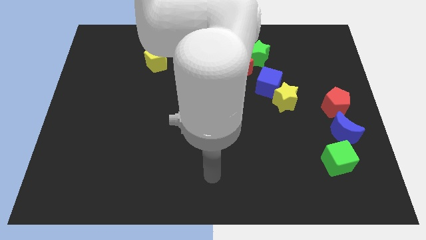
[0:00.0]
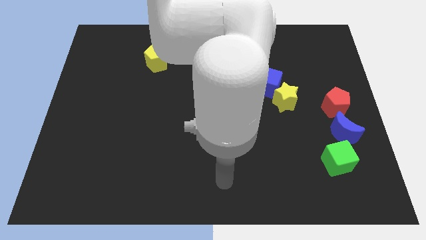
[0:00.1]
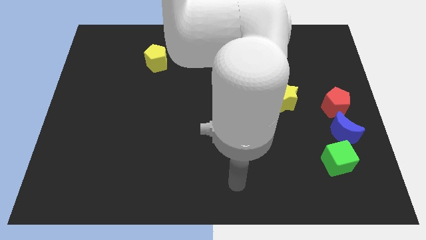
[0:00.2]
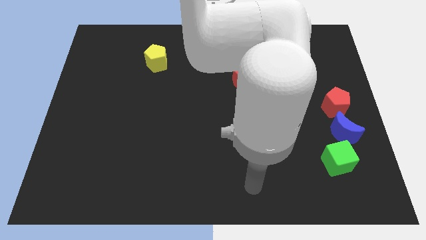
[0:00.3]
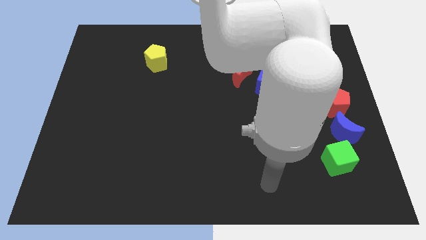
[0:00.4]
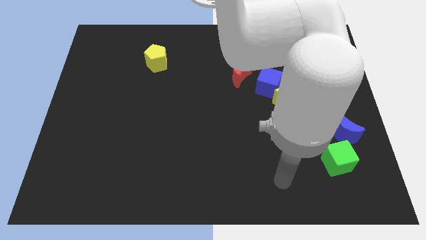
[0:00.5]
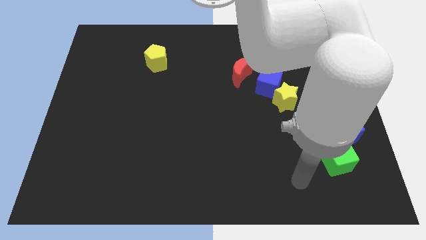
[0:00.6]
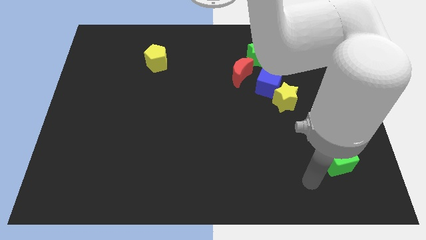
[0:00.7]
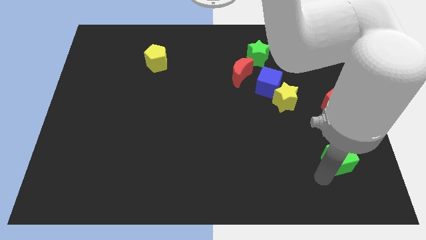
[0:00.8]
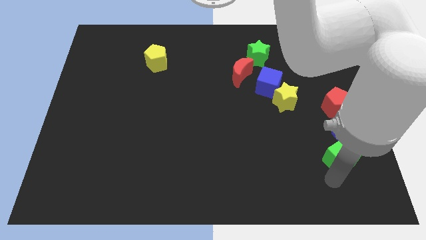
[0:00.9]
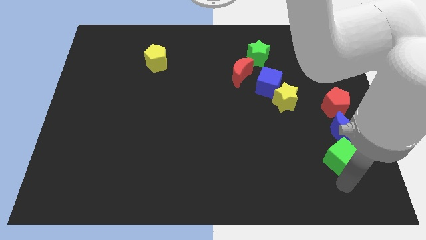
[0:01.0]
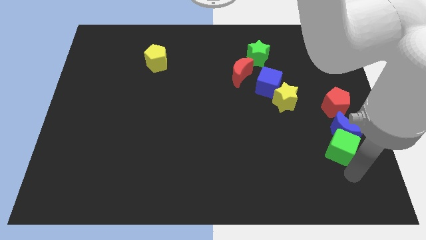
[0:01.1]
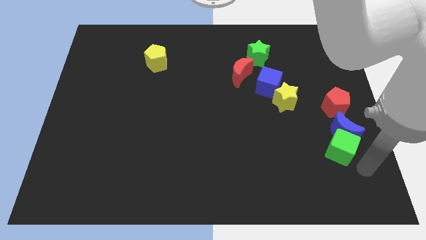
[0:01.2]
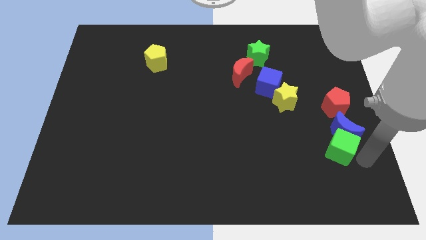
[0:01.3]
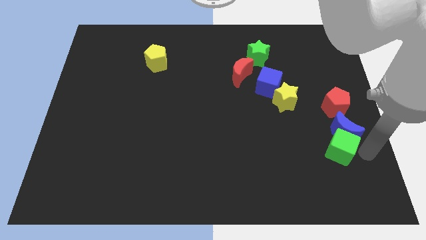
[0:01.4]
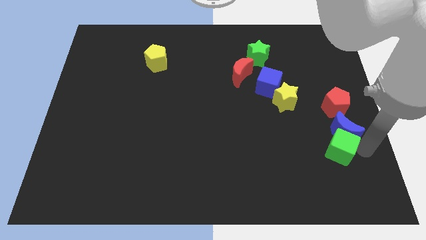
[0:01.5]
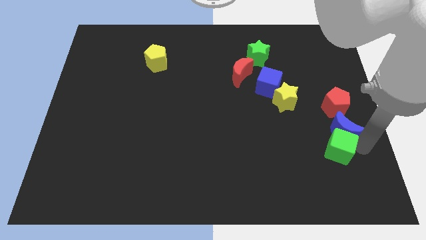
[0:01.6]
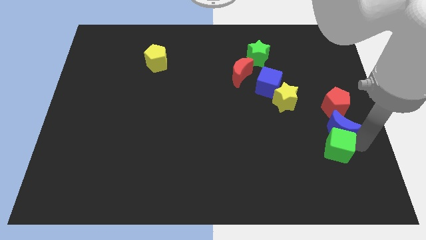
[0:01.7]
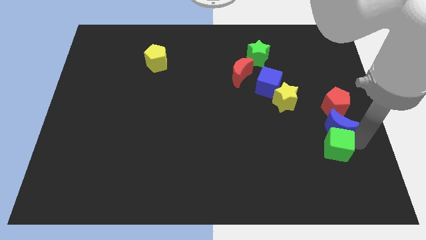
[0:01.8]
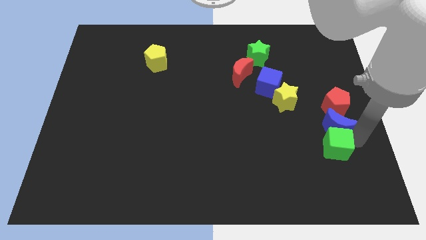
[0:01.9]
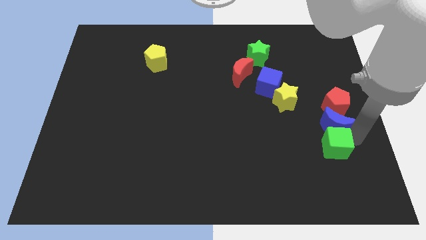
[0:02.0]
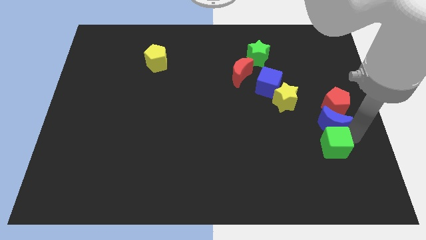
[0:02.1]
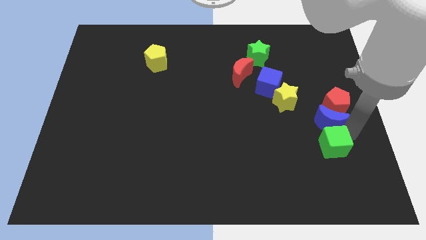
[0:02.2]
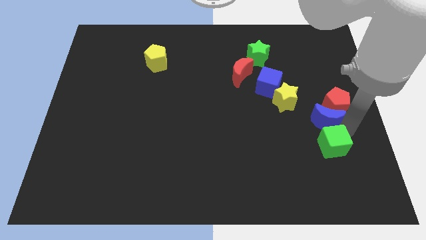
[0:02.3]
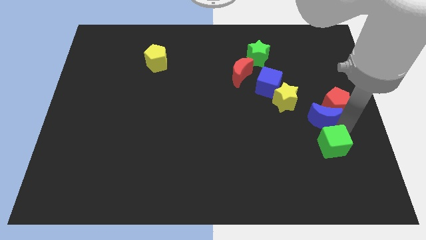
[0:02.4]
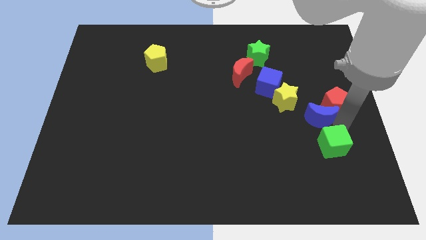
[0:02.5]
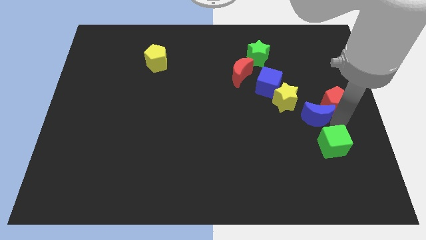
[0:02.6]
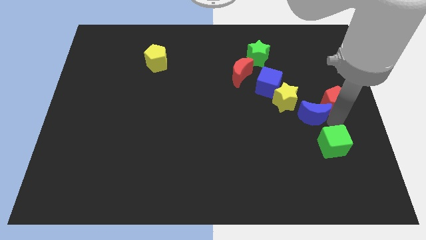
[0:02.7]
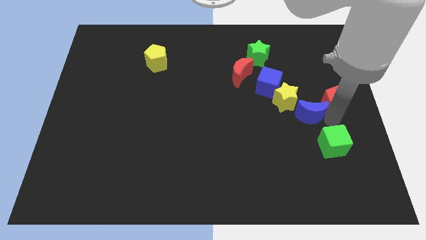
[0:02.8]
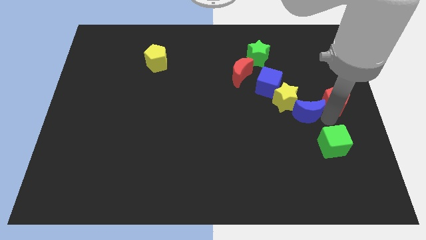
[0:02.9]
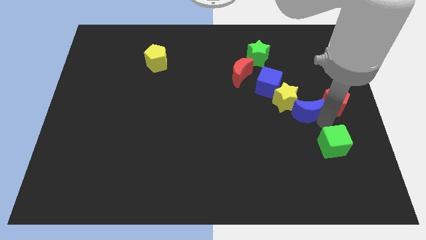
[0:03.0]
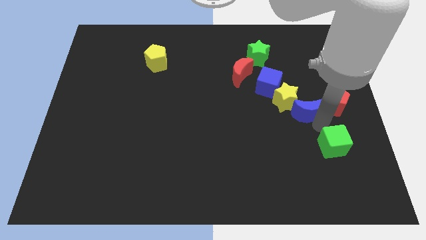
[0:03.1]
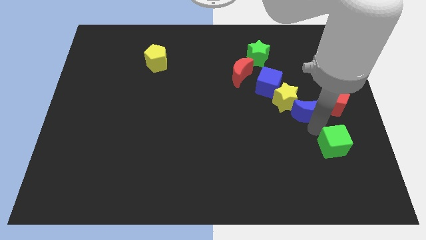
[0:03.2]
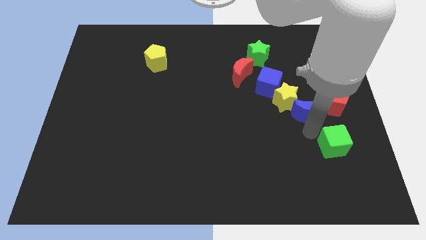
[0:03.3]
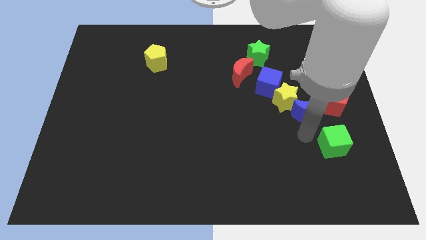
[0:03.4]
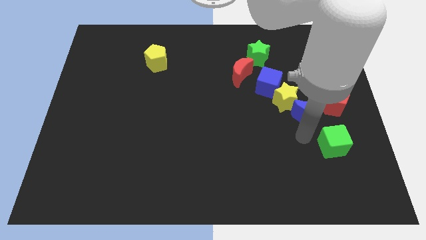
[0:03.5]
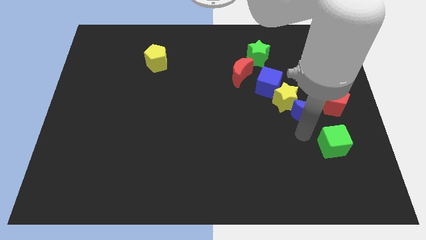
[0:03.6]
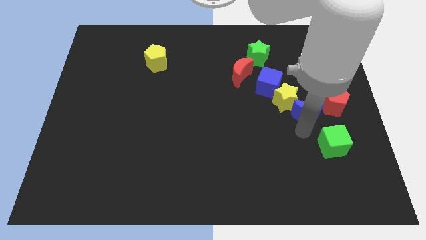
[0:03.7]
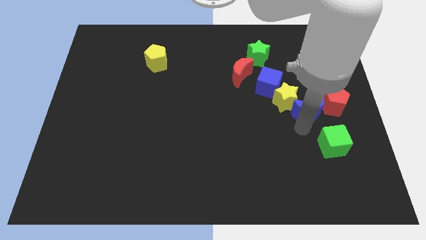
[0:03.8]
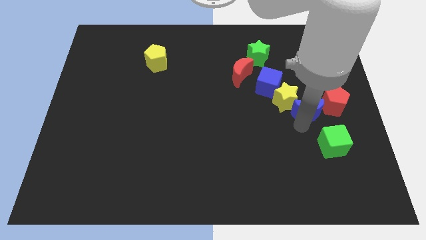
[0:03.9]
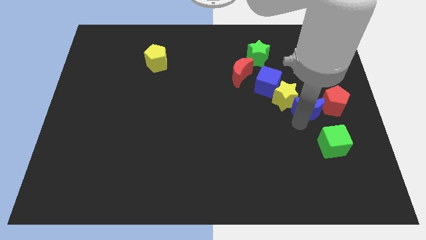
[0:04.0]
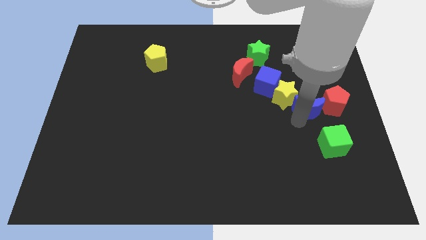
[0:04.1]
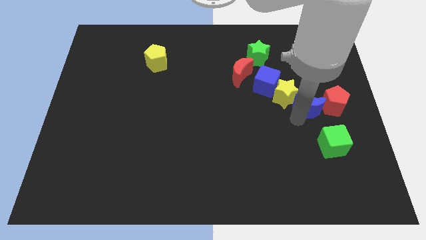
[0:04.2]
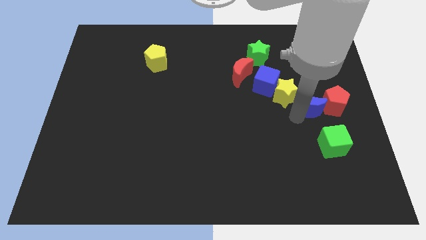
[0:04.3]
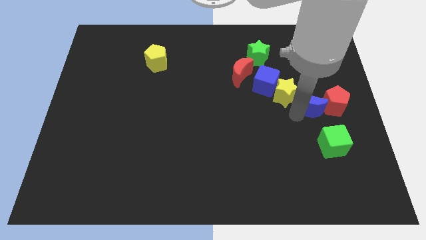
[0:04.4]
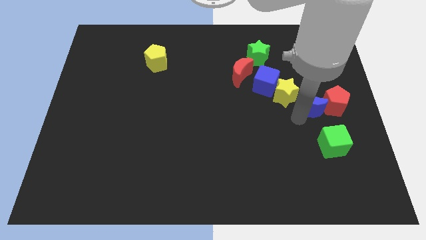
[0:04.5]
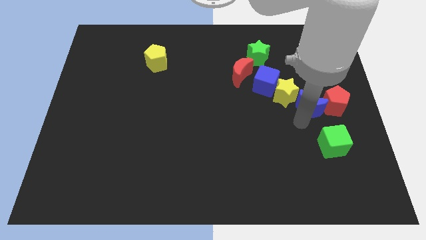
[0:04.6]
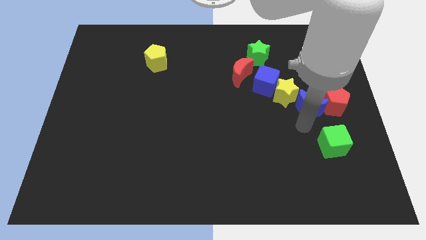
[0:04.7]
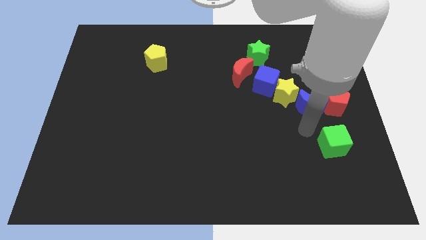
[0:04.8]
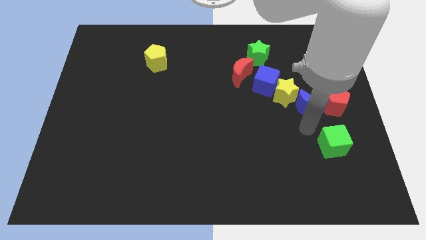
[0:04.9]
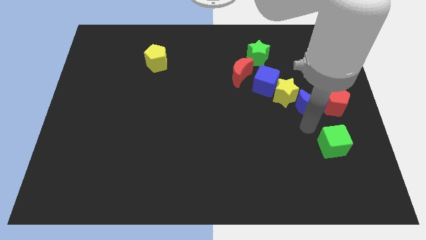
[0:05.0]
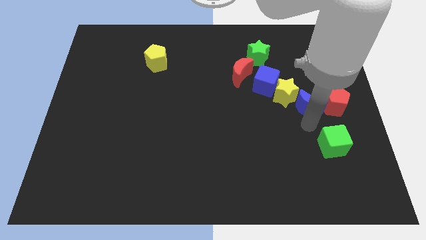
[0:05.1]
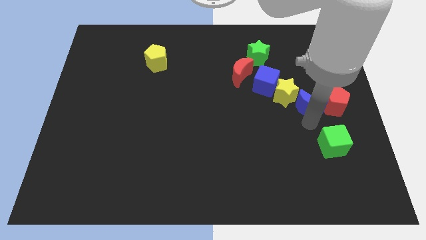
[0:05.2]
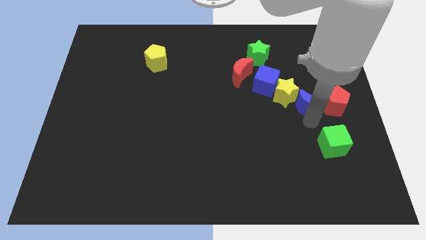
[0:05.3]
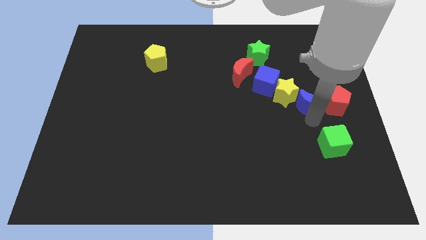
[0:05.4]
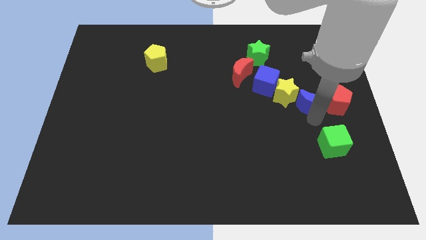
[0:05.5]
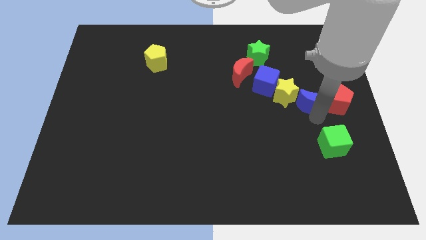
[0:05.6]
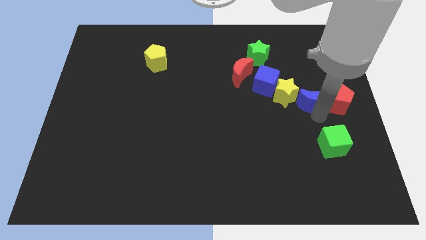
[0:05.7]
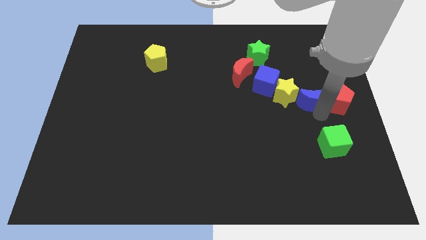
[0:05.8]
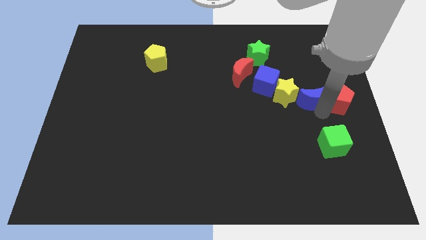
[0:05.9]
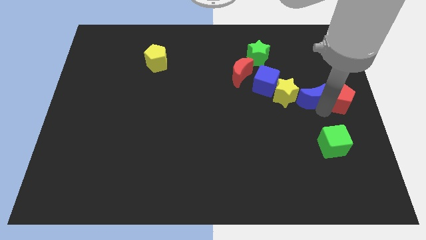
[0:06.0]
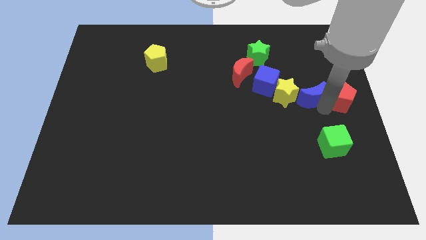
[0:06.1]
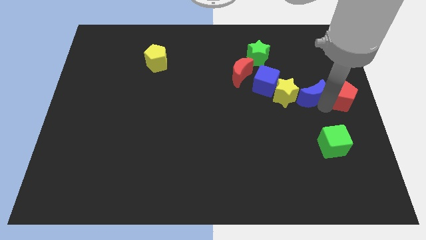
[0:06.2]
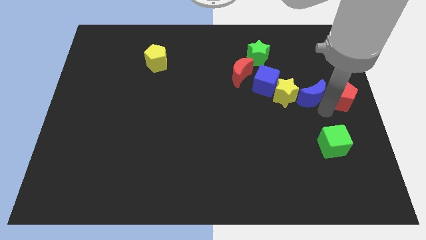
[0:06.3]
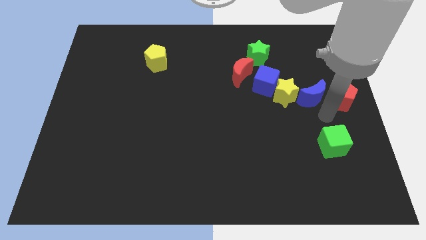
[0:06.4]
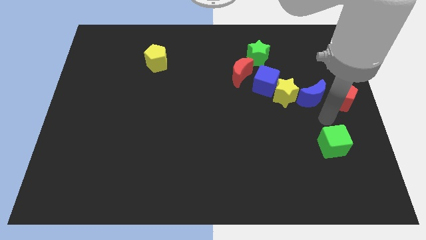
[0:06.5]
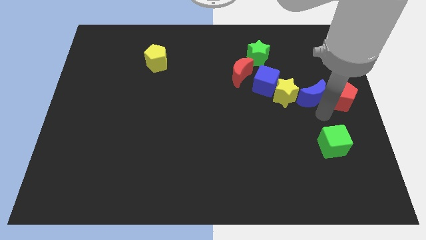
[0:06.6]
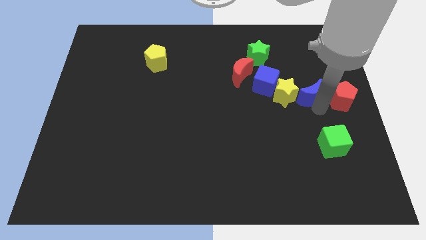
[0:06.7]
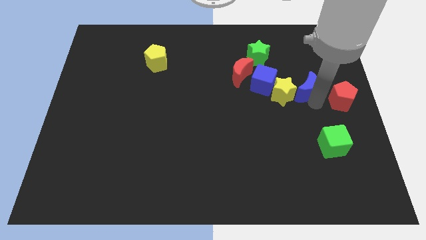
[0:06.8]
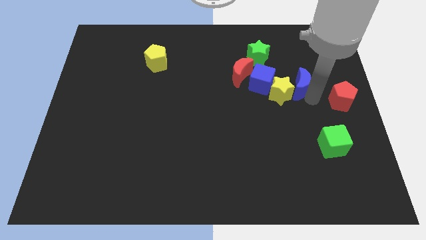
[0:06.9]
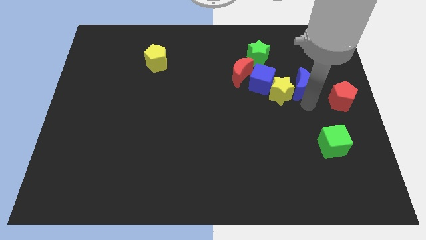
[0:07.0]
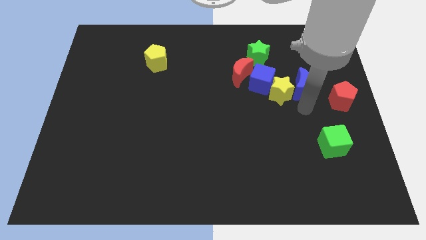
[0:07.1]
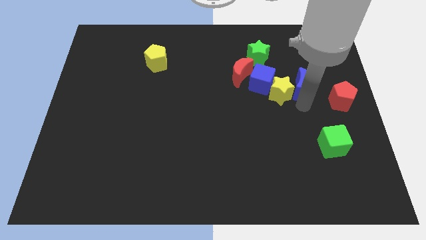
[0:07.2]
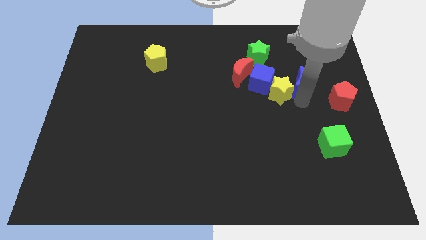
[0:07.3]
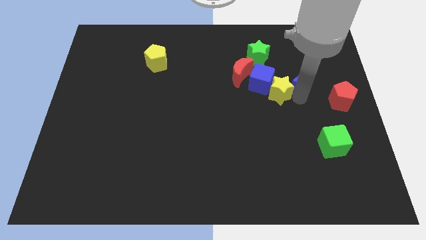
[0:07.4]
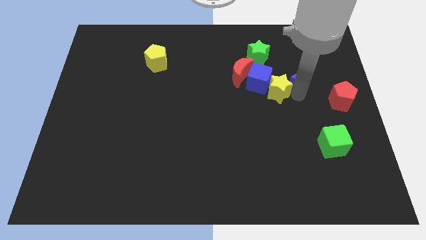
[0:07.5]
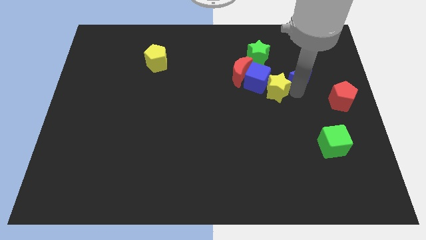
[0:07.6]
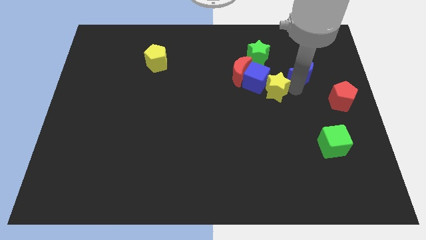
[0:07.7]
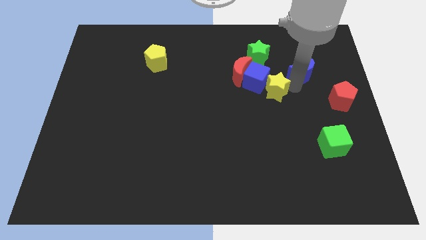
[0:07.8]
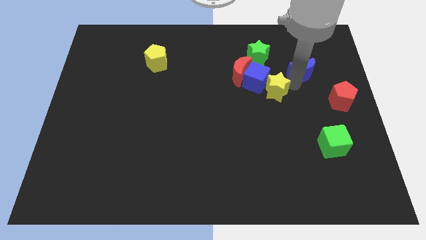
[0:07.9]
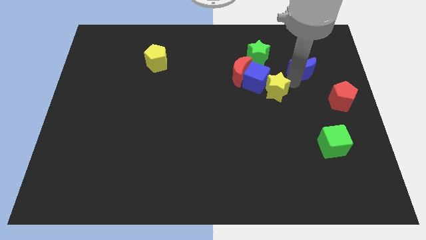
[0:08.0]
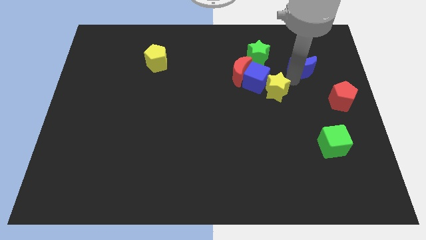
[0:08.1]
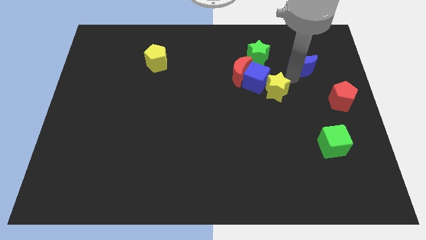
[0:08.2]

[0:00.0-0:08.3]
move the blue moon just right of the green star
